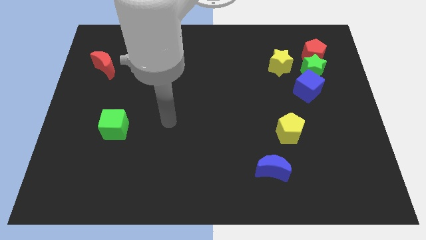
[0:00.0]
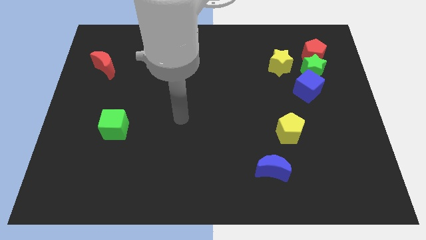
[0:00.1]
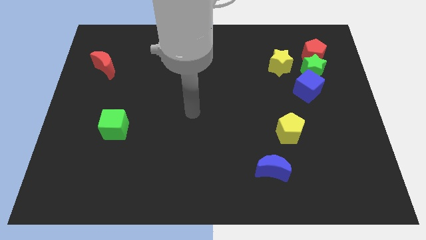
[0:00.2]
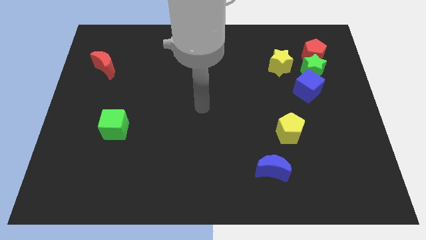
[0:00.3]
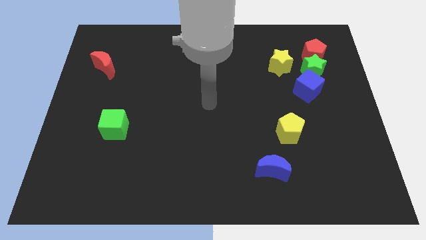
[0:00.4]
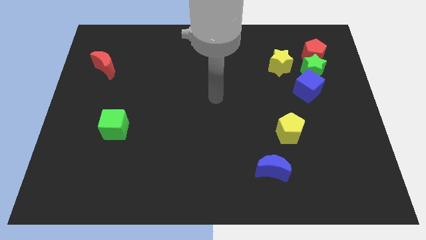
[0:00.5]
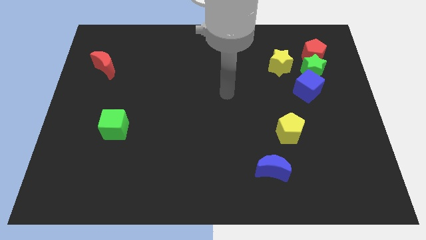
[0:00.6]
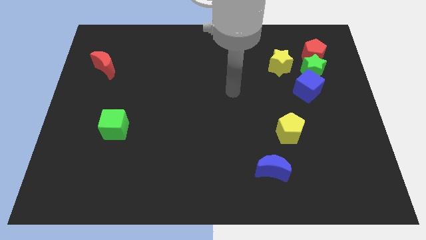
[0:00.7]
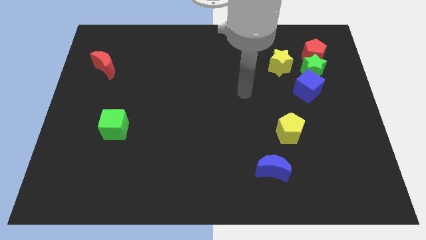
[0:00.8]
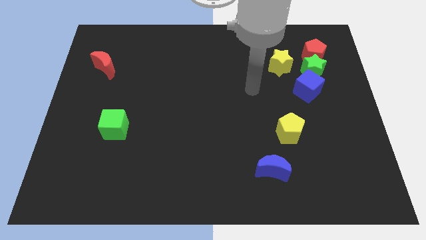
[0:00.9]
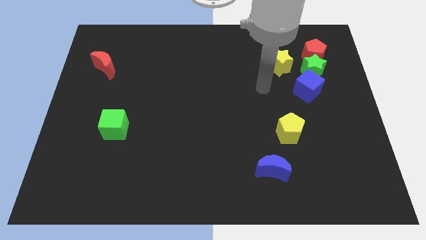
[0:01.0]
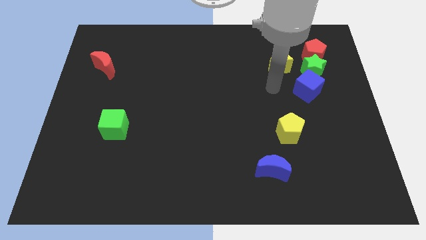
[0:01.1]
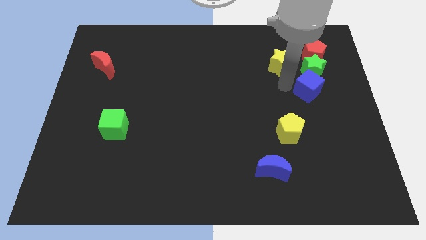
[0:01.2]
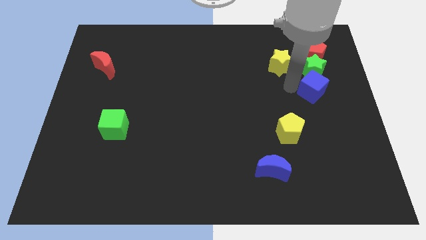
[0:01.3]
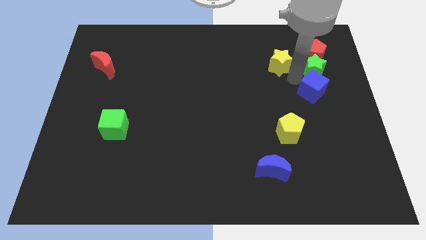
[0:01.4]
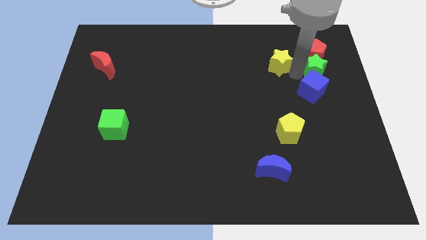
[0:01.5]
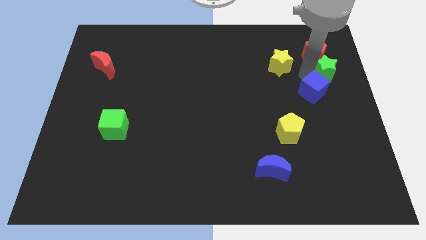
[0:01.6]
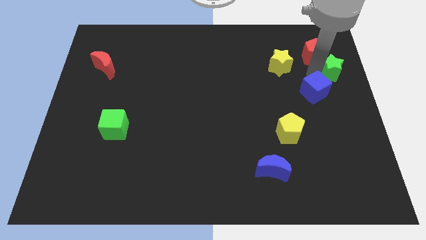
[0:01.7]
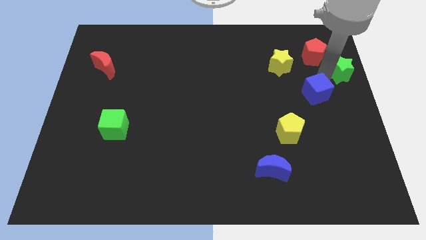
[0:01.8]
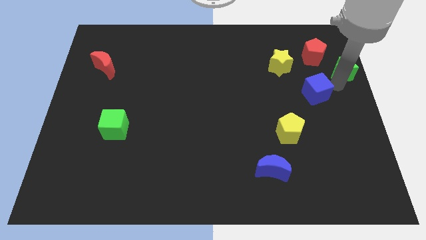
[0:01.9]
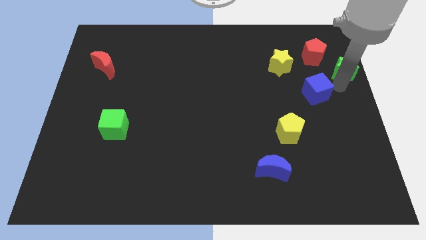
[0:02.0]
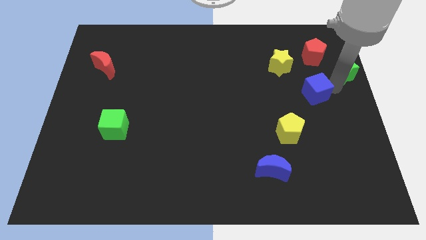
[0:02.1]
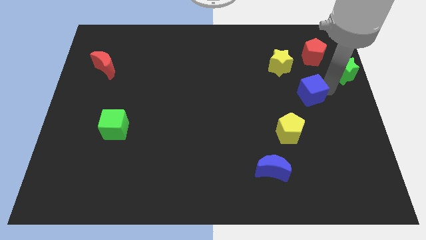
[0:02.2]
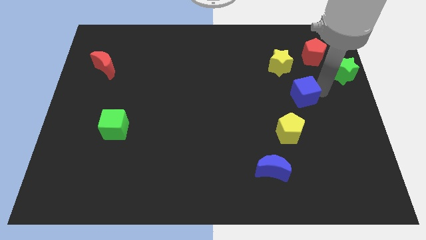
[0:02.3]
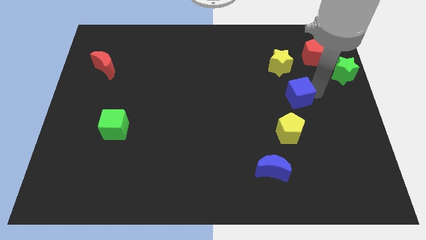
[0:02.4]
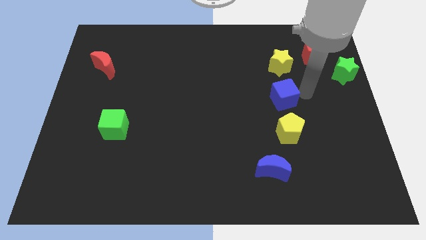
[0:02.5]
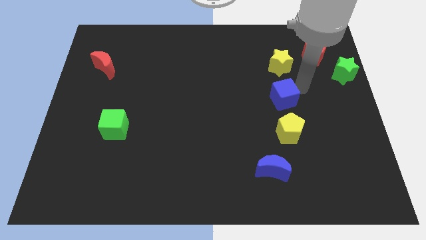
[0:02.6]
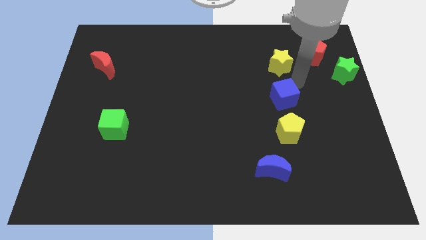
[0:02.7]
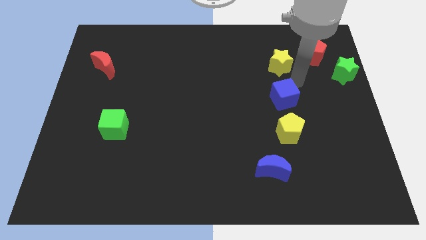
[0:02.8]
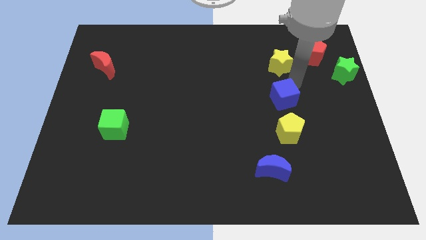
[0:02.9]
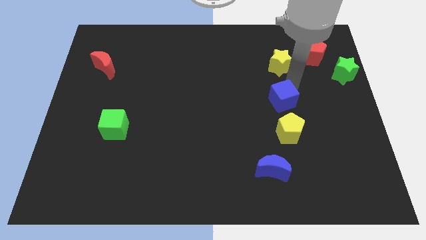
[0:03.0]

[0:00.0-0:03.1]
push the blue cube down and to the left a little bit

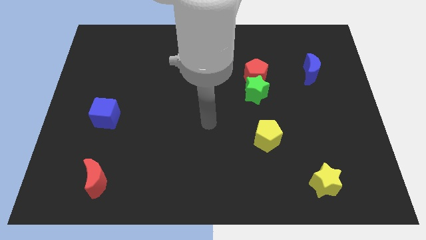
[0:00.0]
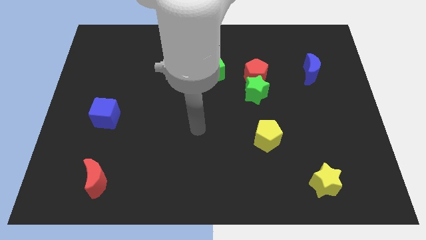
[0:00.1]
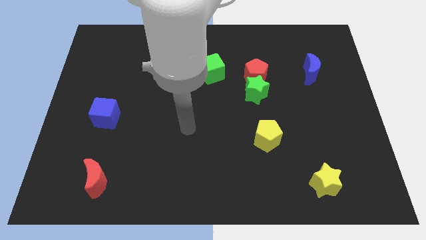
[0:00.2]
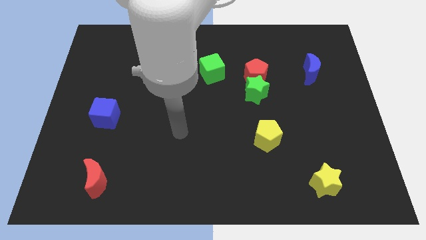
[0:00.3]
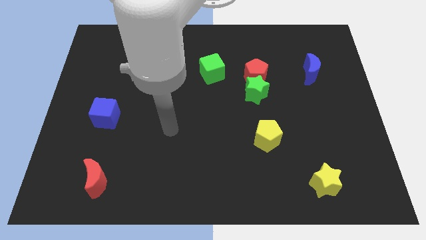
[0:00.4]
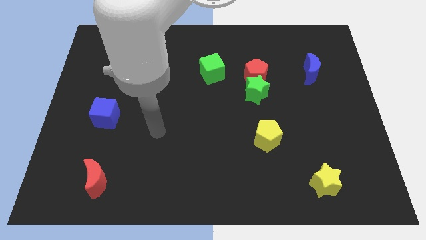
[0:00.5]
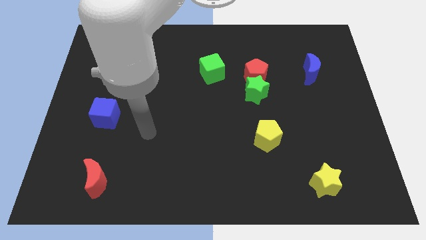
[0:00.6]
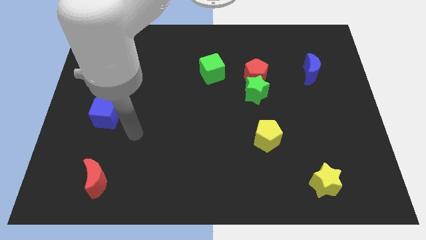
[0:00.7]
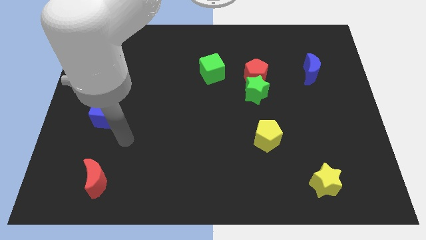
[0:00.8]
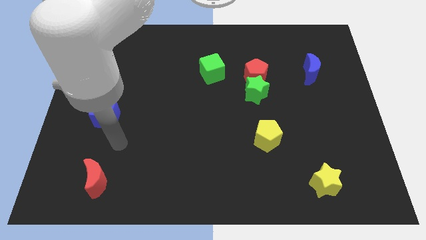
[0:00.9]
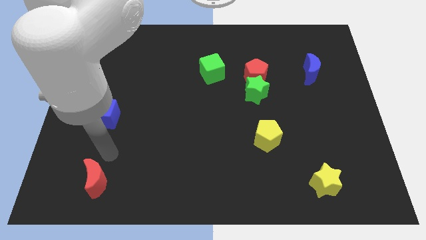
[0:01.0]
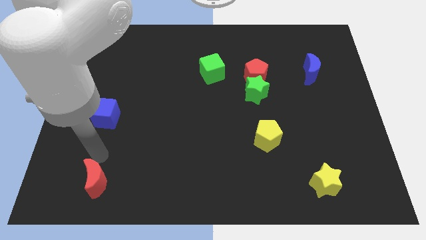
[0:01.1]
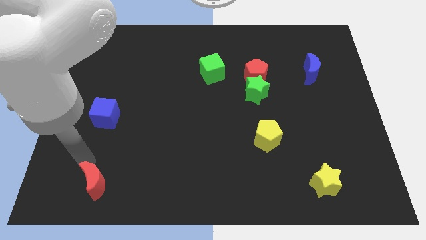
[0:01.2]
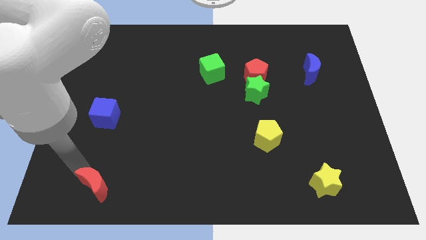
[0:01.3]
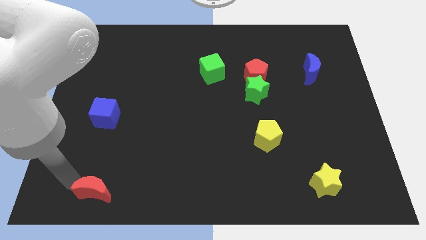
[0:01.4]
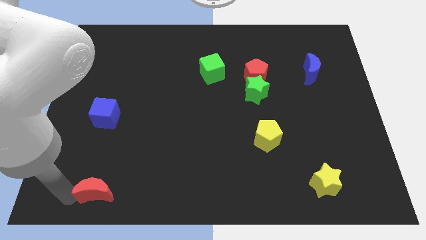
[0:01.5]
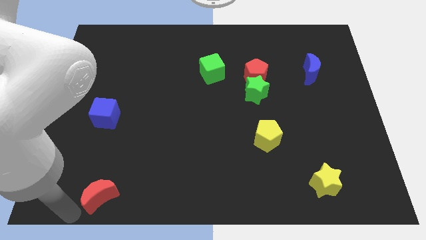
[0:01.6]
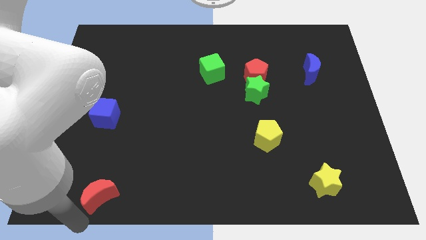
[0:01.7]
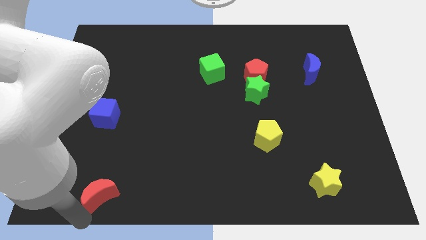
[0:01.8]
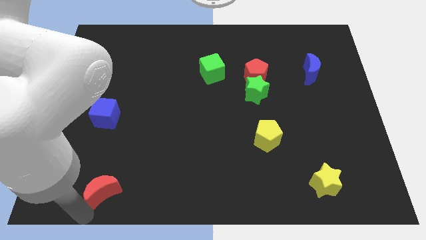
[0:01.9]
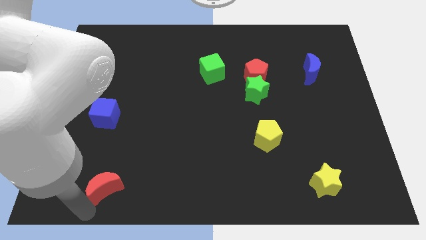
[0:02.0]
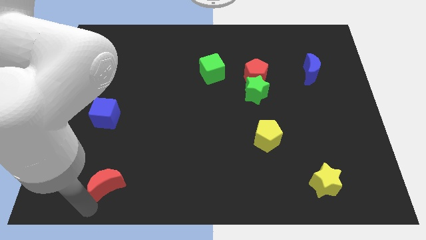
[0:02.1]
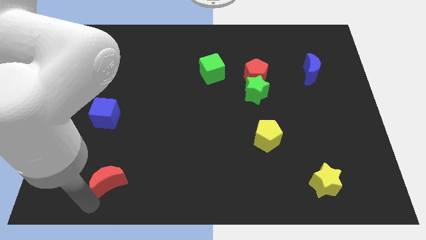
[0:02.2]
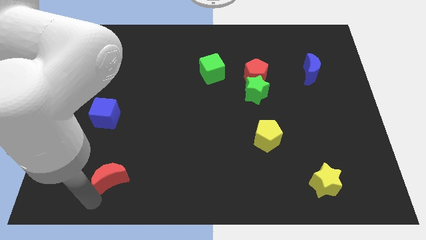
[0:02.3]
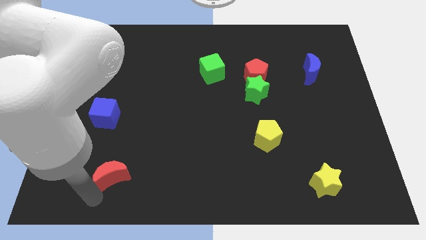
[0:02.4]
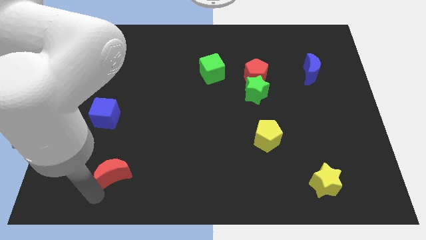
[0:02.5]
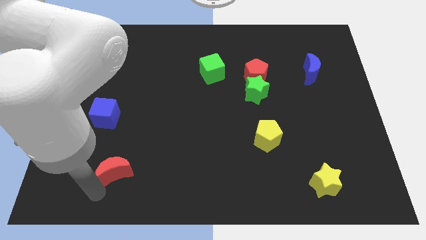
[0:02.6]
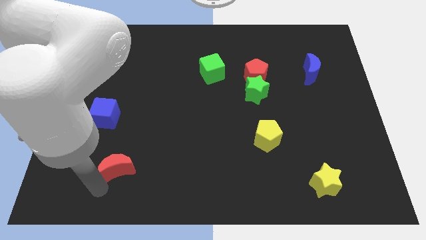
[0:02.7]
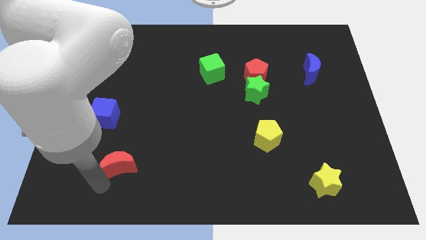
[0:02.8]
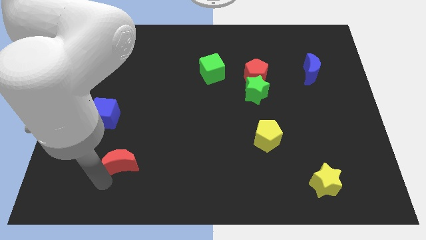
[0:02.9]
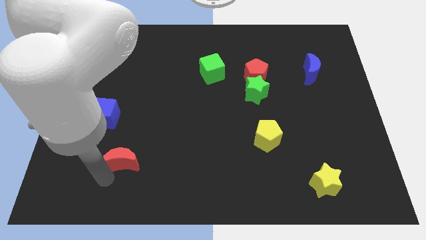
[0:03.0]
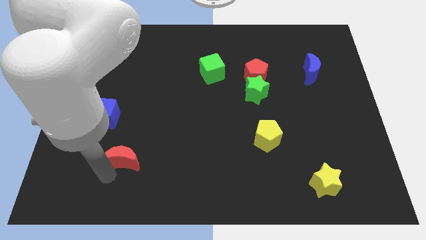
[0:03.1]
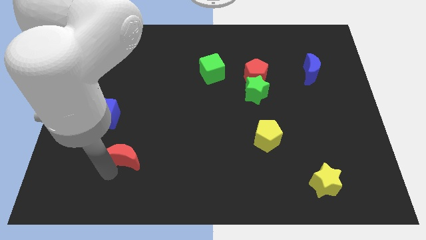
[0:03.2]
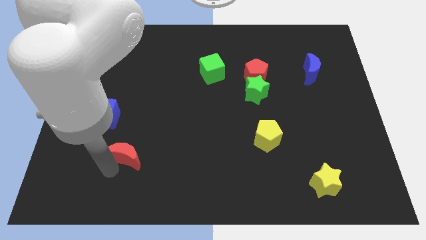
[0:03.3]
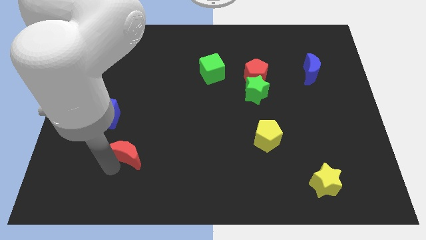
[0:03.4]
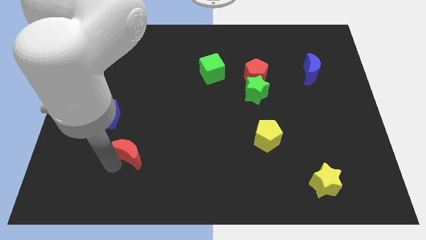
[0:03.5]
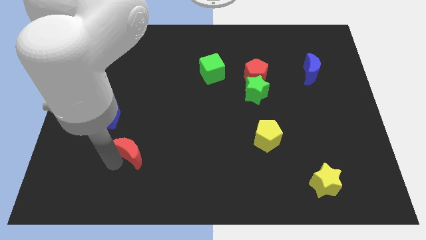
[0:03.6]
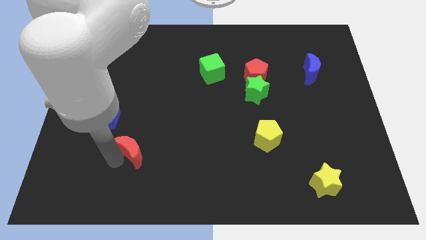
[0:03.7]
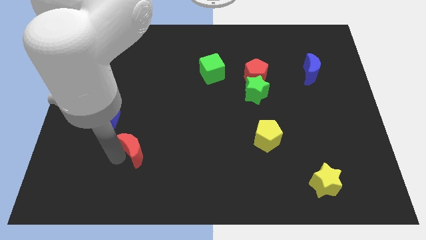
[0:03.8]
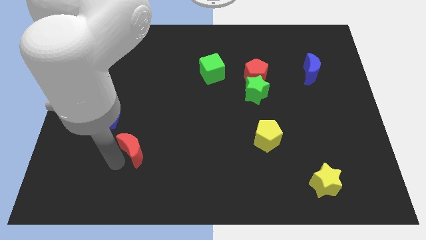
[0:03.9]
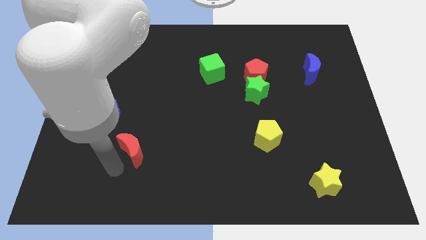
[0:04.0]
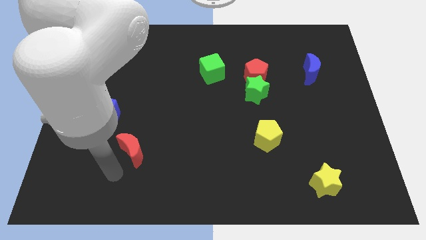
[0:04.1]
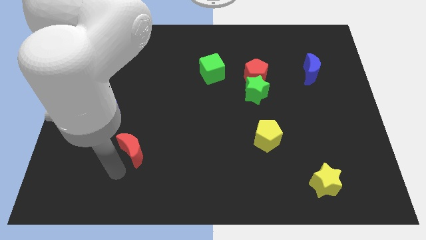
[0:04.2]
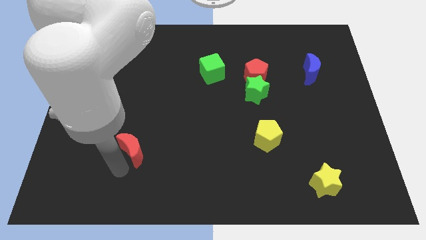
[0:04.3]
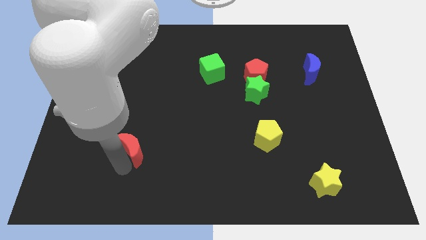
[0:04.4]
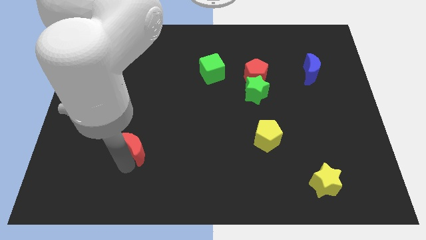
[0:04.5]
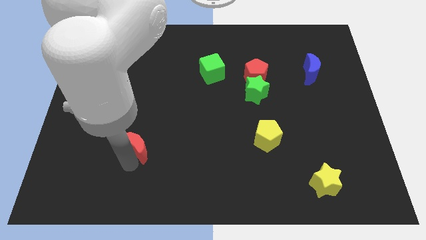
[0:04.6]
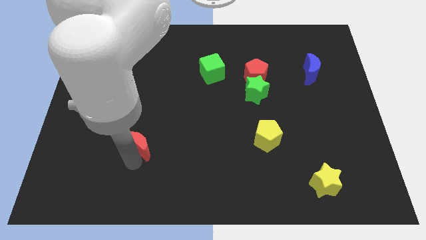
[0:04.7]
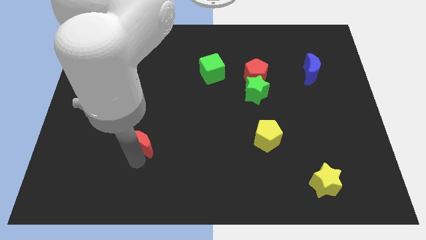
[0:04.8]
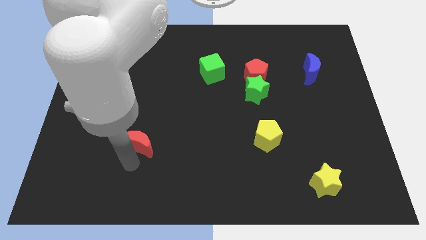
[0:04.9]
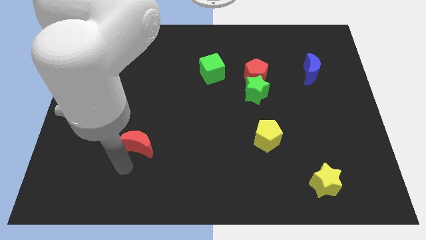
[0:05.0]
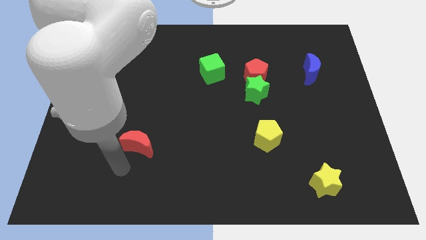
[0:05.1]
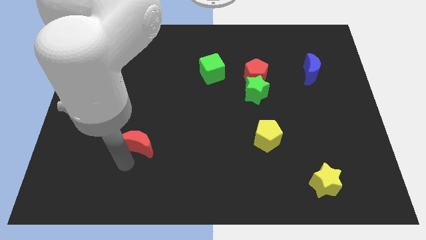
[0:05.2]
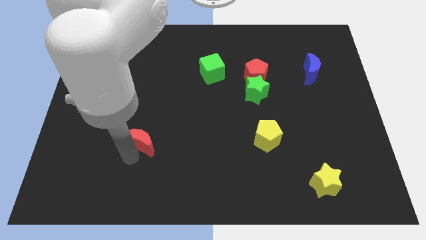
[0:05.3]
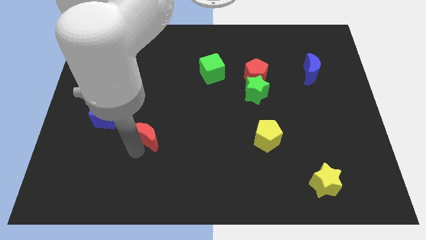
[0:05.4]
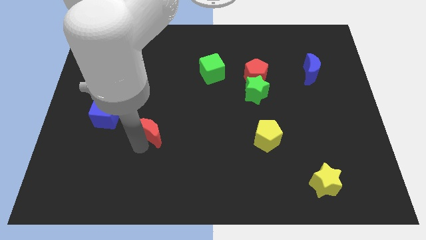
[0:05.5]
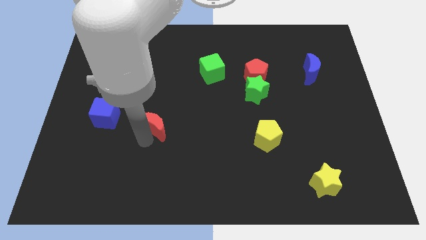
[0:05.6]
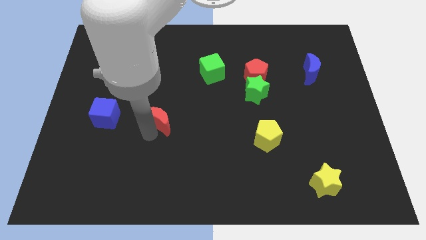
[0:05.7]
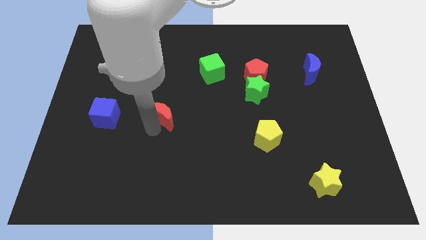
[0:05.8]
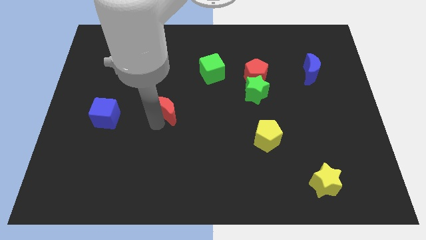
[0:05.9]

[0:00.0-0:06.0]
push the red moon up and then to the right
